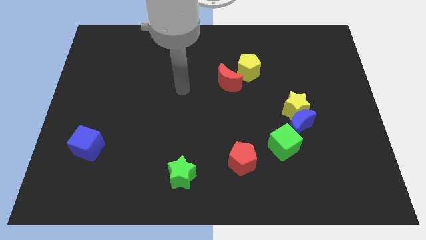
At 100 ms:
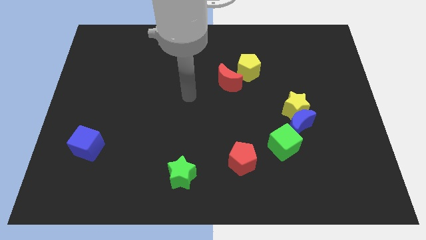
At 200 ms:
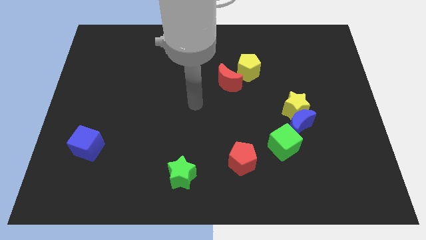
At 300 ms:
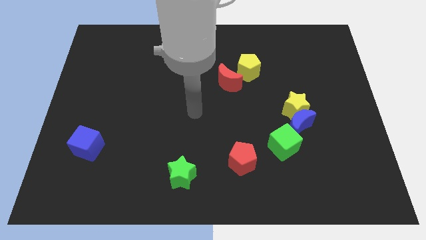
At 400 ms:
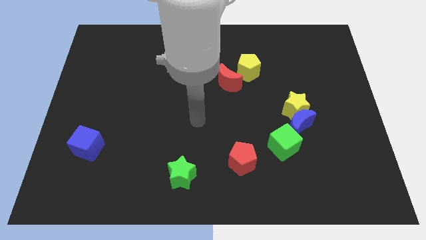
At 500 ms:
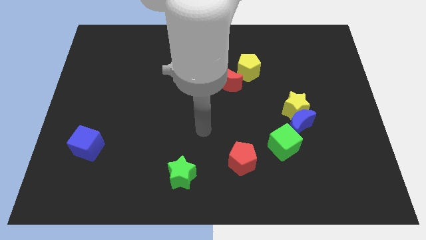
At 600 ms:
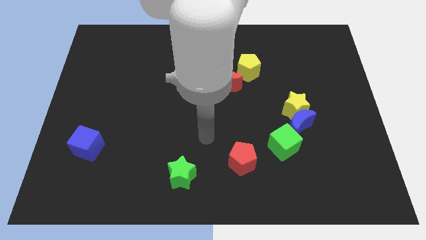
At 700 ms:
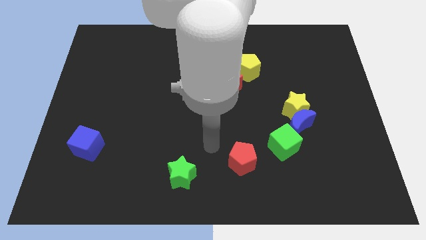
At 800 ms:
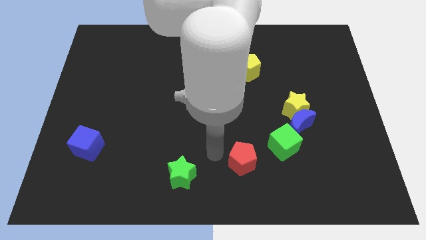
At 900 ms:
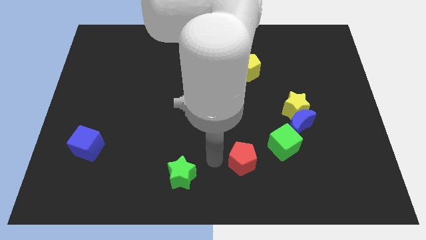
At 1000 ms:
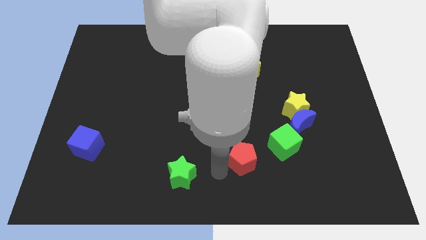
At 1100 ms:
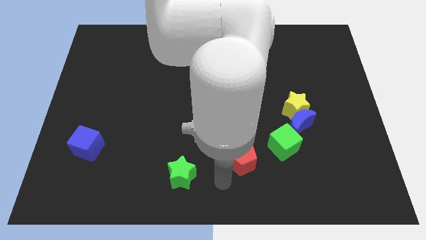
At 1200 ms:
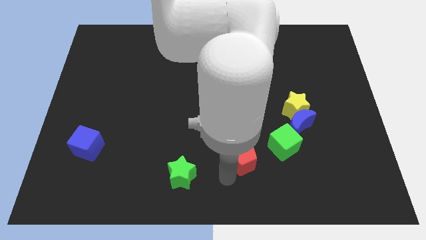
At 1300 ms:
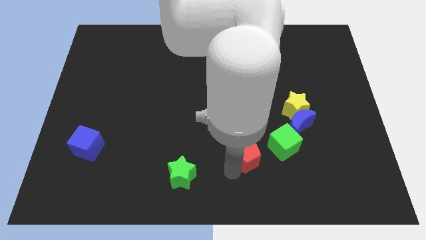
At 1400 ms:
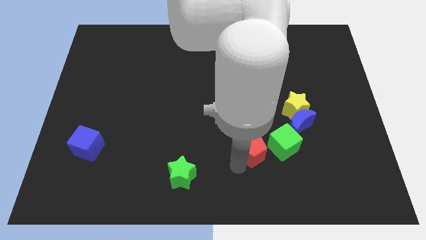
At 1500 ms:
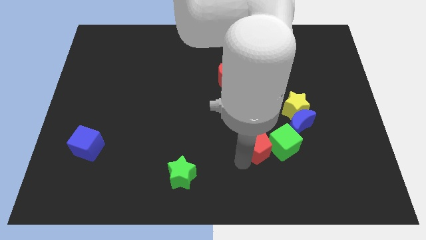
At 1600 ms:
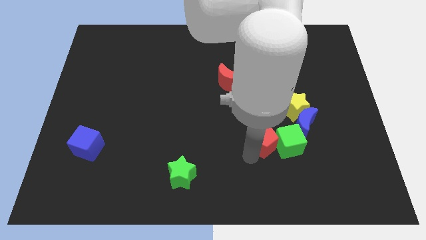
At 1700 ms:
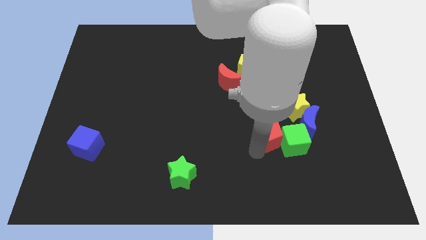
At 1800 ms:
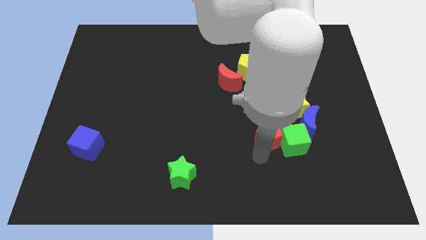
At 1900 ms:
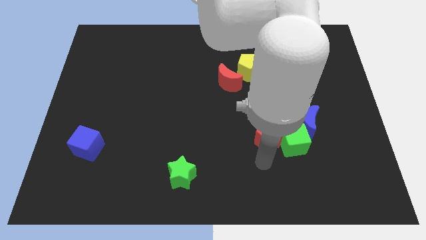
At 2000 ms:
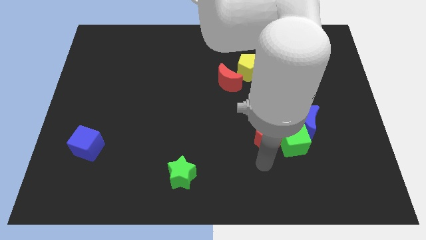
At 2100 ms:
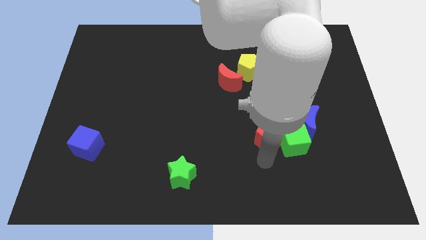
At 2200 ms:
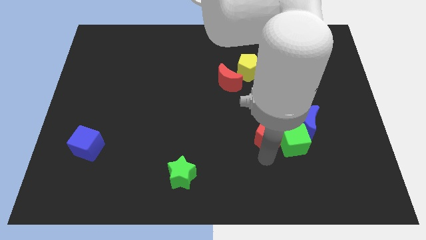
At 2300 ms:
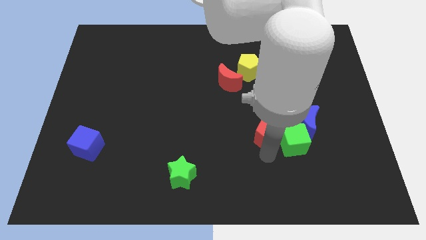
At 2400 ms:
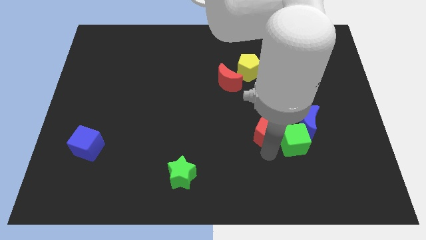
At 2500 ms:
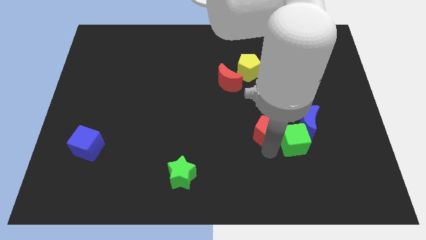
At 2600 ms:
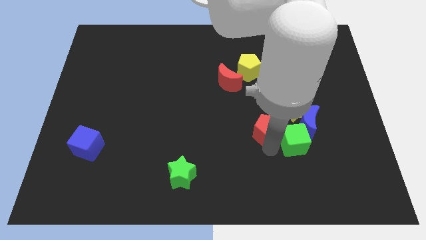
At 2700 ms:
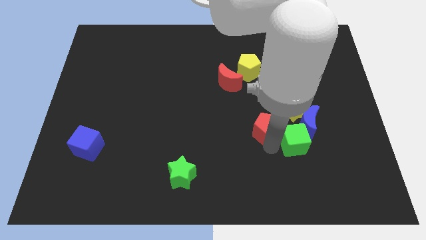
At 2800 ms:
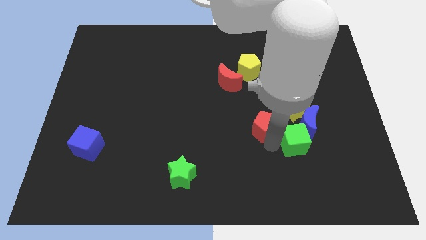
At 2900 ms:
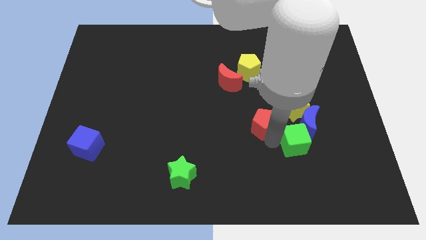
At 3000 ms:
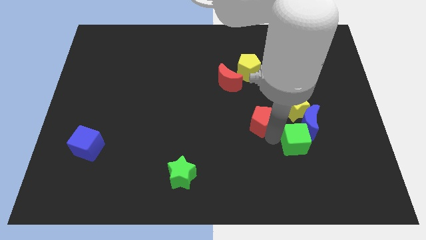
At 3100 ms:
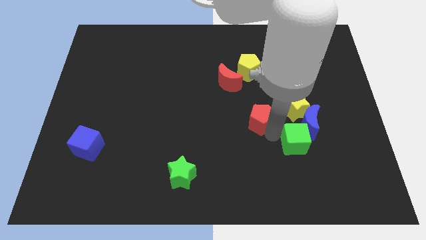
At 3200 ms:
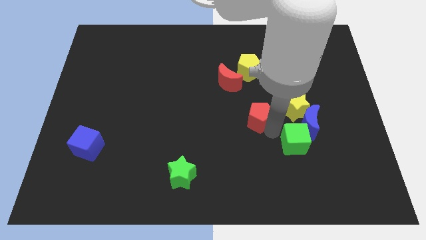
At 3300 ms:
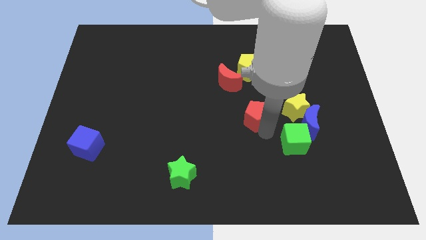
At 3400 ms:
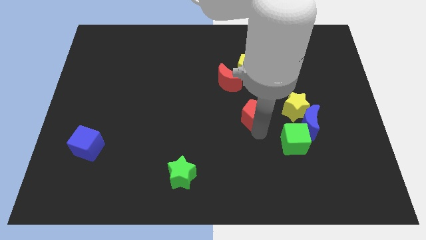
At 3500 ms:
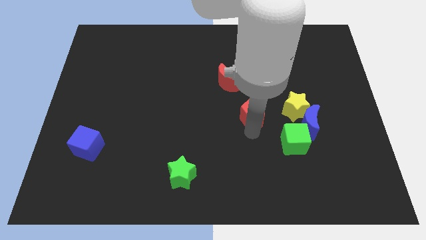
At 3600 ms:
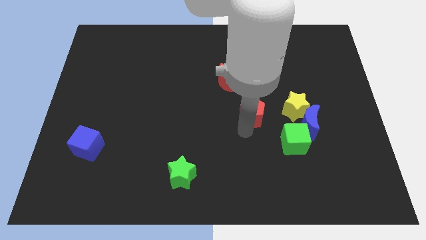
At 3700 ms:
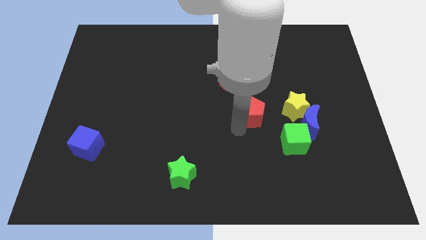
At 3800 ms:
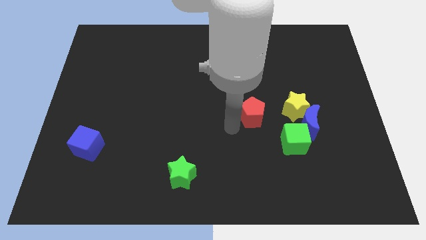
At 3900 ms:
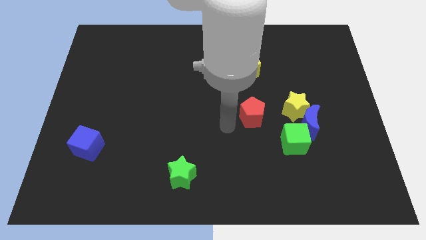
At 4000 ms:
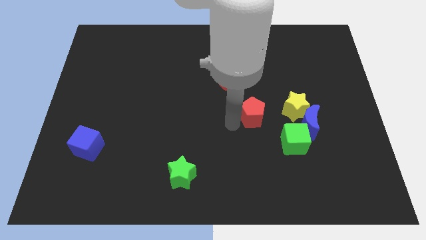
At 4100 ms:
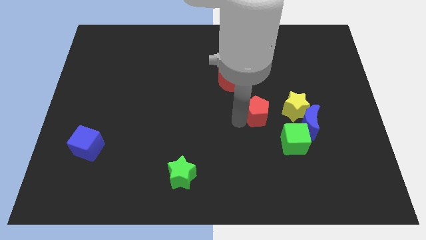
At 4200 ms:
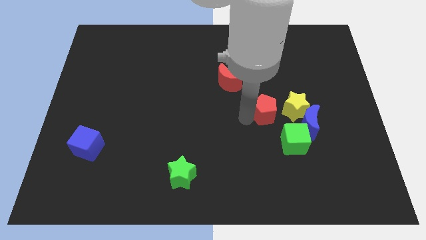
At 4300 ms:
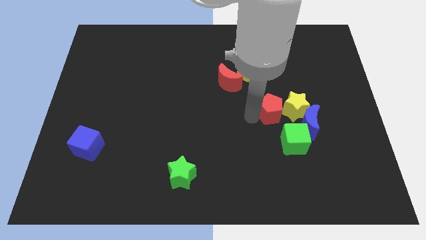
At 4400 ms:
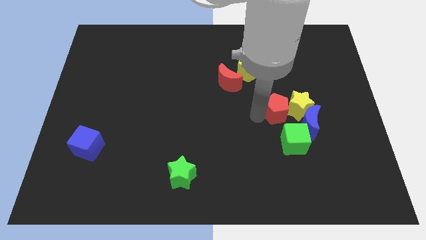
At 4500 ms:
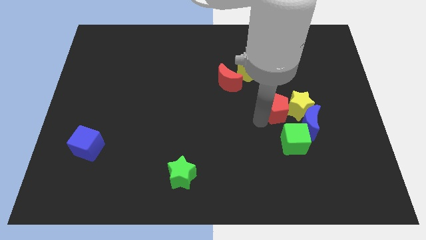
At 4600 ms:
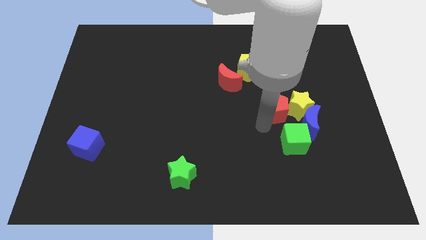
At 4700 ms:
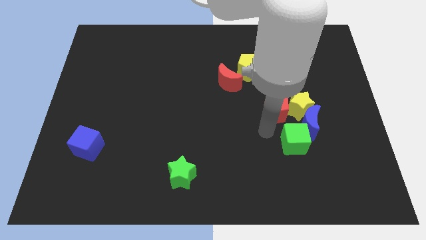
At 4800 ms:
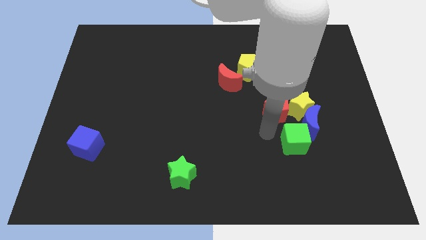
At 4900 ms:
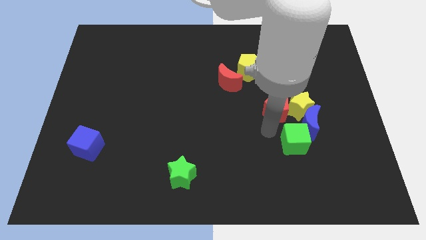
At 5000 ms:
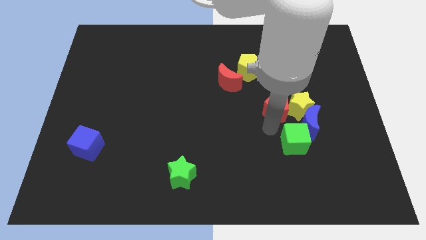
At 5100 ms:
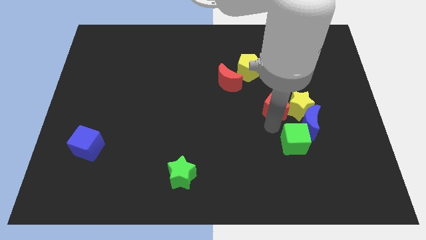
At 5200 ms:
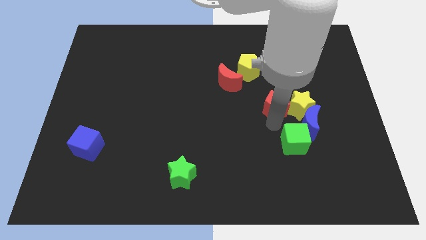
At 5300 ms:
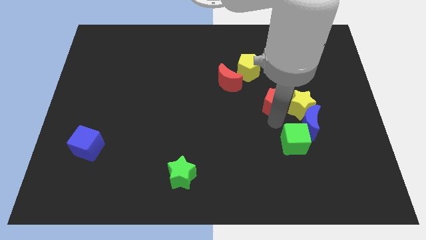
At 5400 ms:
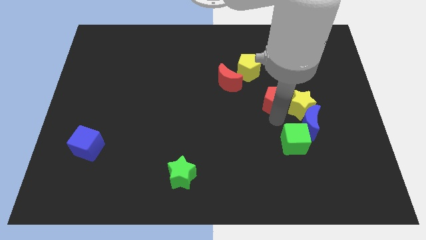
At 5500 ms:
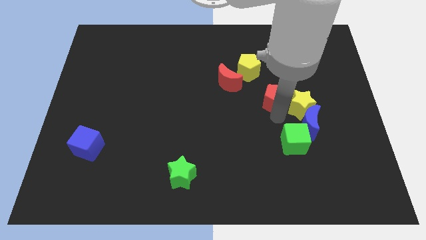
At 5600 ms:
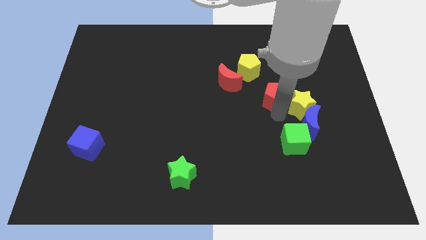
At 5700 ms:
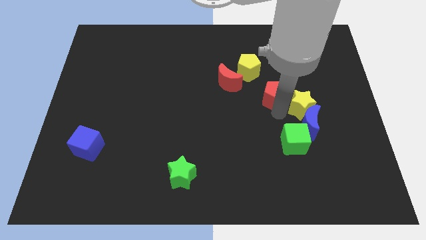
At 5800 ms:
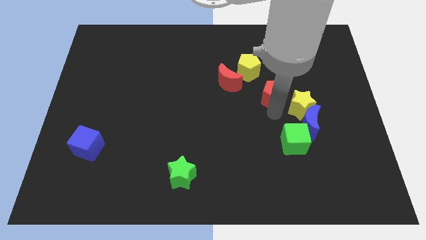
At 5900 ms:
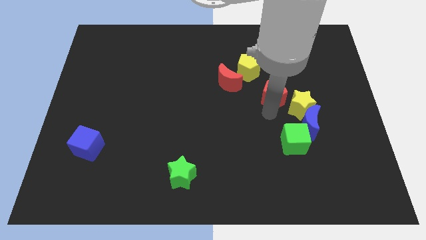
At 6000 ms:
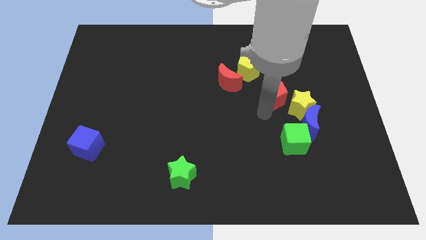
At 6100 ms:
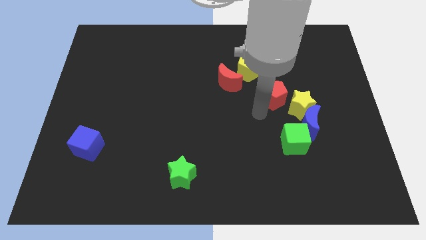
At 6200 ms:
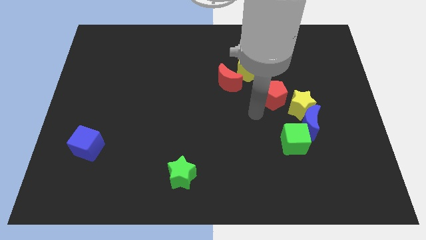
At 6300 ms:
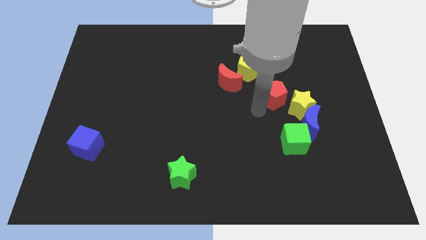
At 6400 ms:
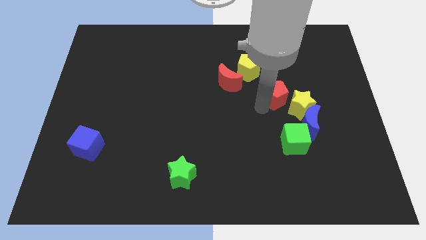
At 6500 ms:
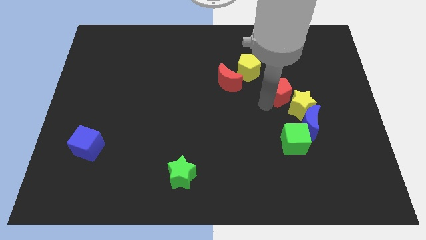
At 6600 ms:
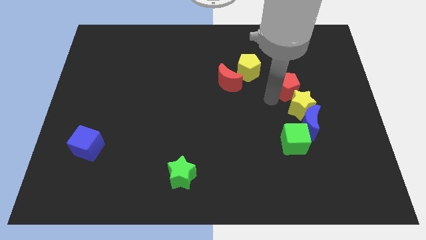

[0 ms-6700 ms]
move the red pentagon up and then to the right

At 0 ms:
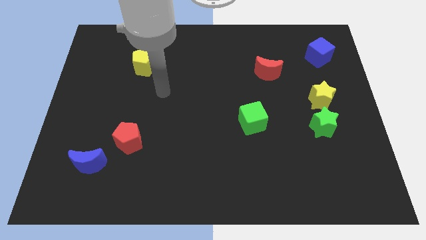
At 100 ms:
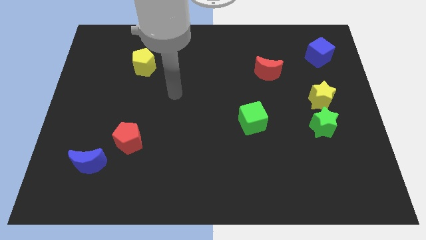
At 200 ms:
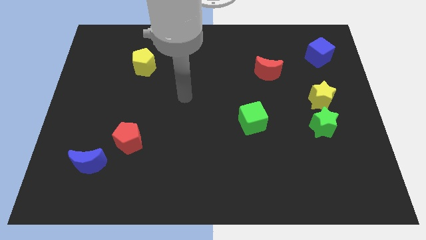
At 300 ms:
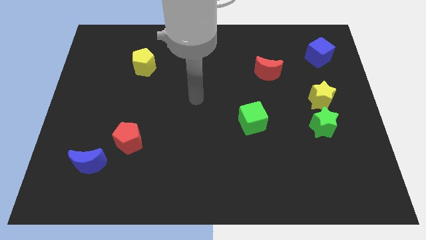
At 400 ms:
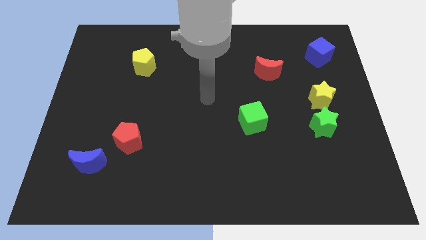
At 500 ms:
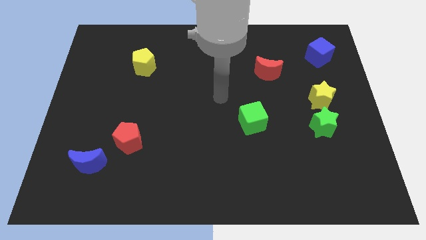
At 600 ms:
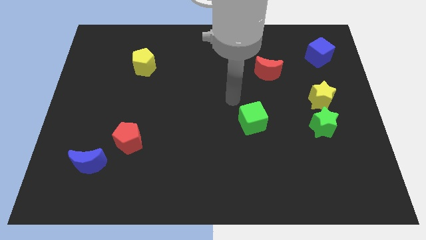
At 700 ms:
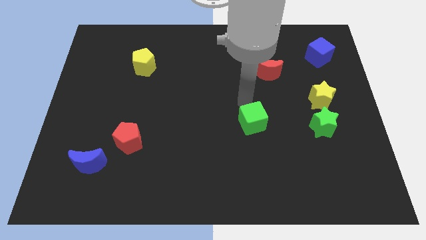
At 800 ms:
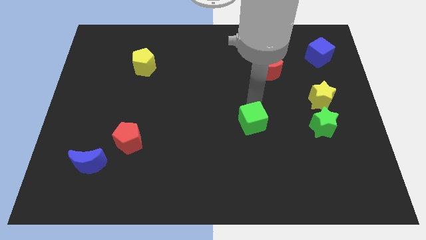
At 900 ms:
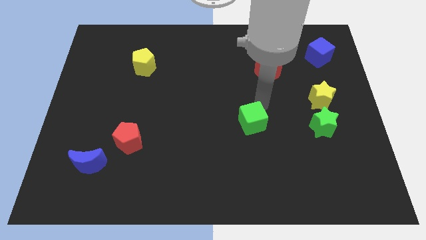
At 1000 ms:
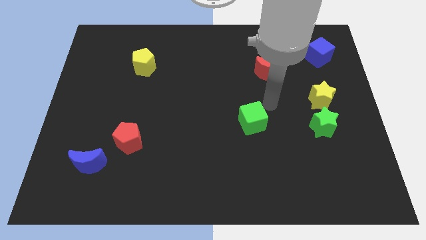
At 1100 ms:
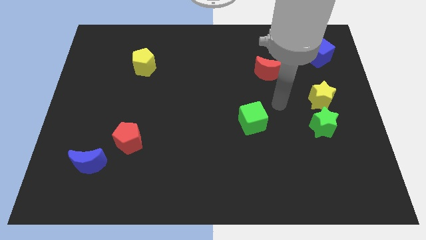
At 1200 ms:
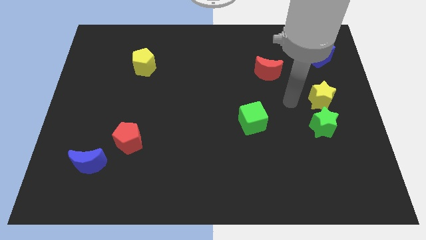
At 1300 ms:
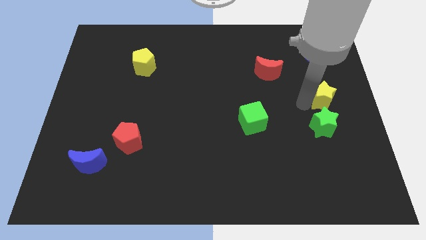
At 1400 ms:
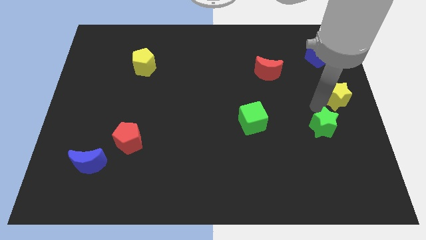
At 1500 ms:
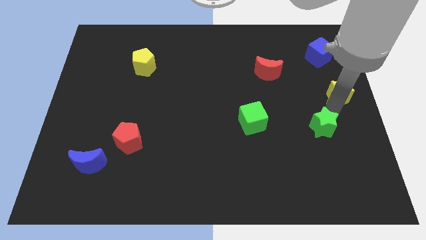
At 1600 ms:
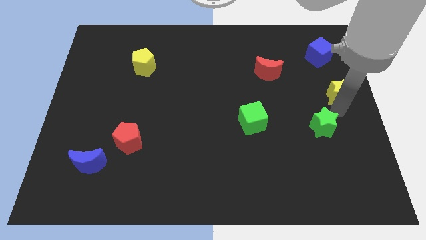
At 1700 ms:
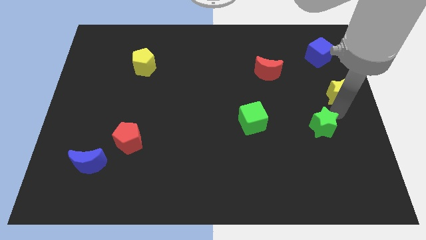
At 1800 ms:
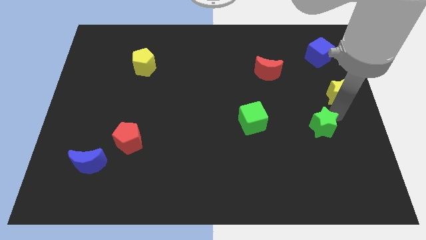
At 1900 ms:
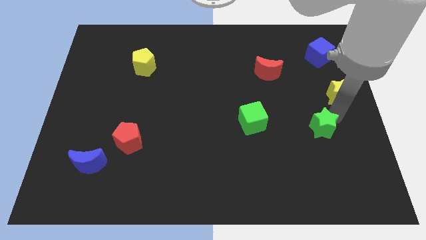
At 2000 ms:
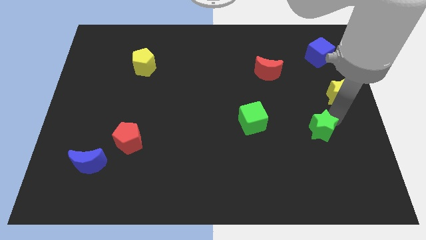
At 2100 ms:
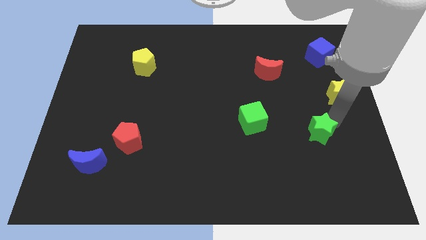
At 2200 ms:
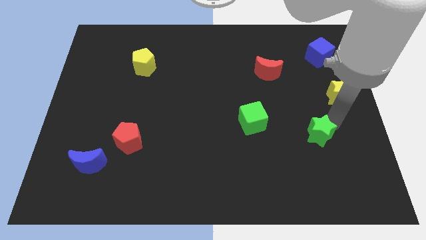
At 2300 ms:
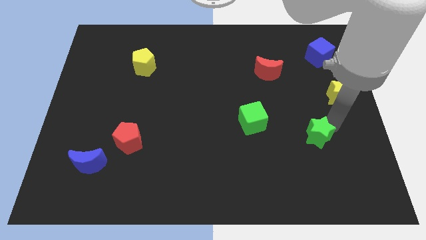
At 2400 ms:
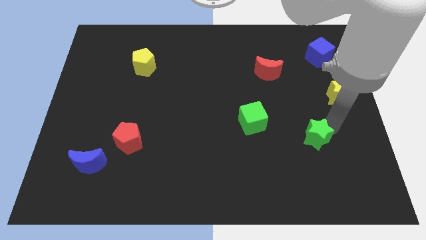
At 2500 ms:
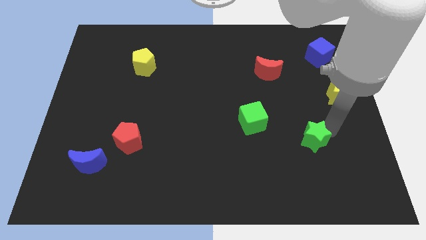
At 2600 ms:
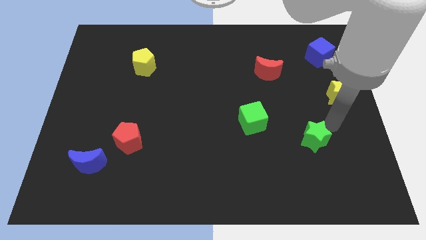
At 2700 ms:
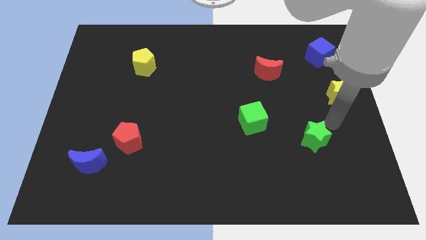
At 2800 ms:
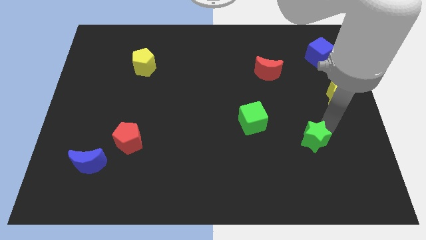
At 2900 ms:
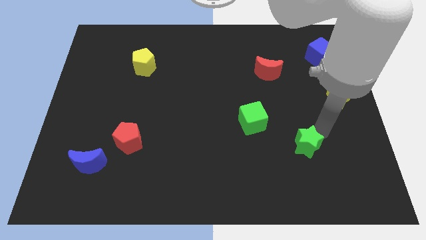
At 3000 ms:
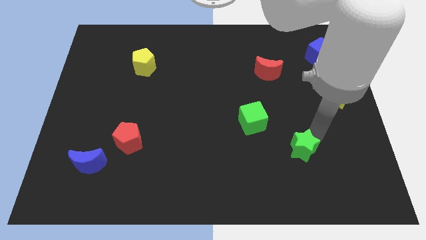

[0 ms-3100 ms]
push the green star diagonally downwards and left somewhat
